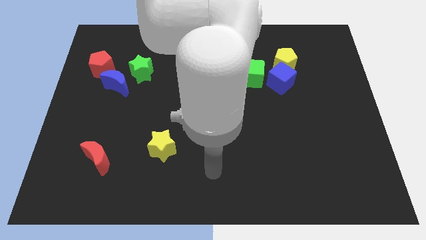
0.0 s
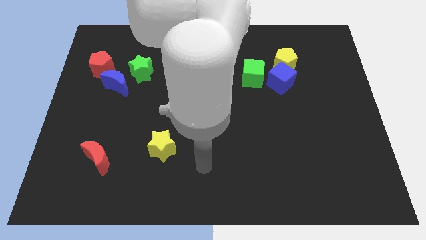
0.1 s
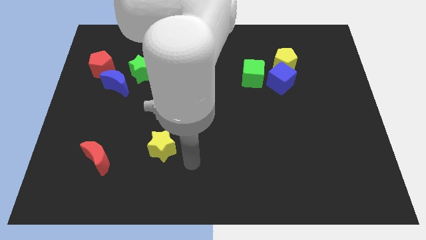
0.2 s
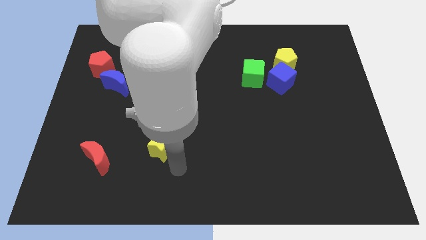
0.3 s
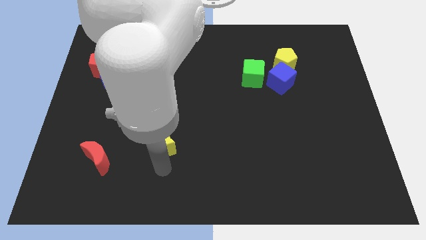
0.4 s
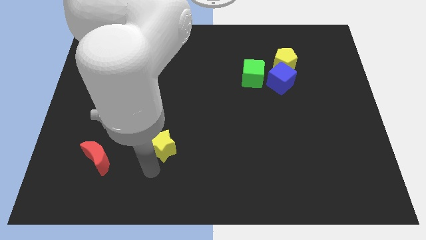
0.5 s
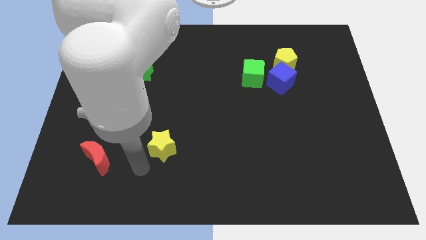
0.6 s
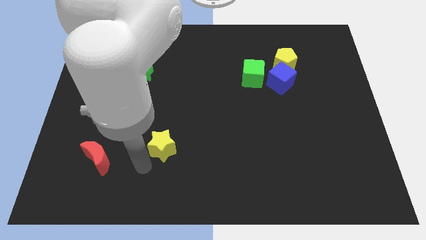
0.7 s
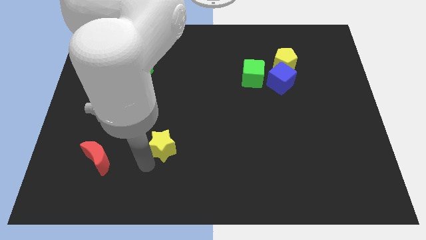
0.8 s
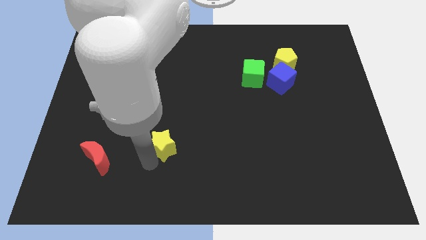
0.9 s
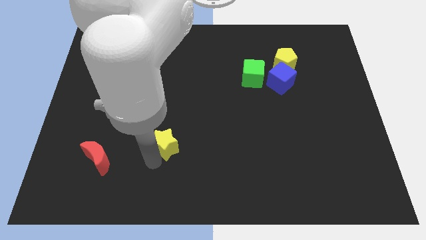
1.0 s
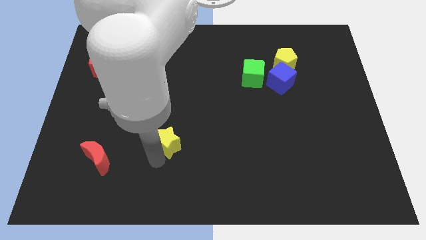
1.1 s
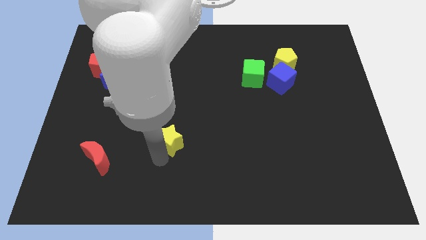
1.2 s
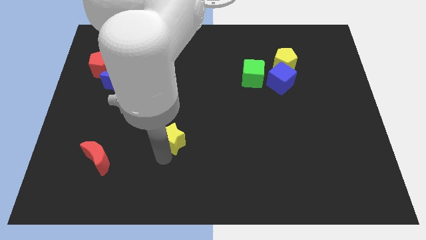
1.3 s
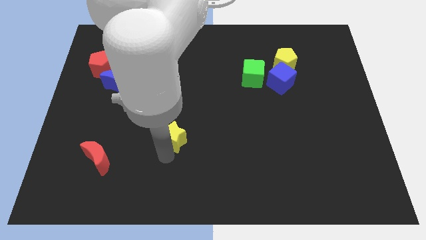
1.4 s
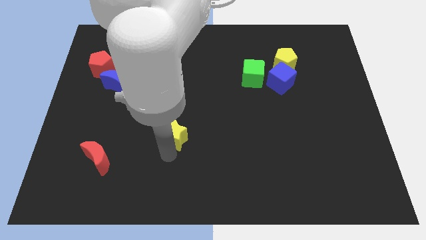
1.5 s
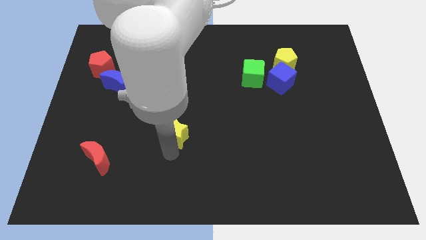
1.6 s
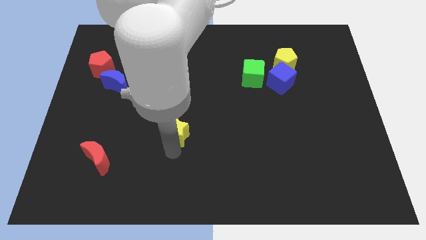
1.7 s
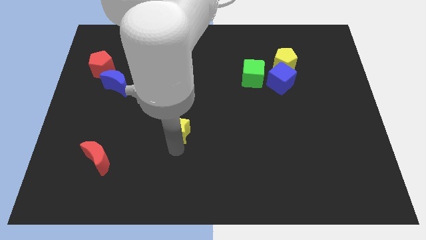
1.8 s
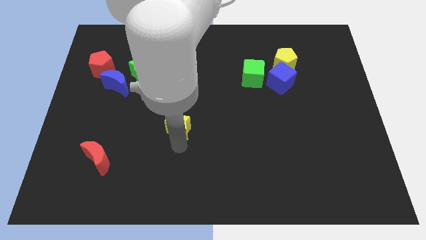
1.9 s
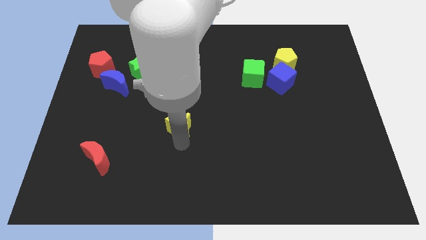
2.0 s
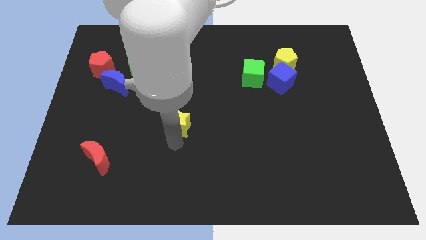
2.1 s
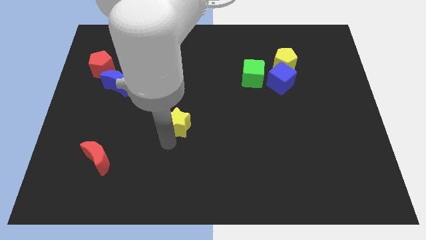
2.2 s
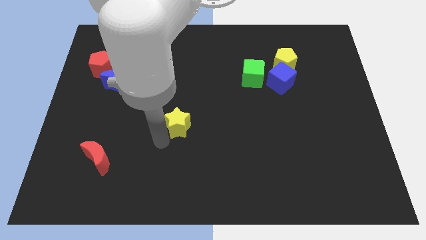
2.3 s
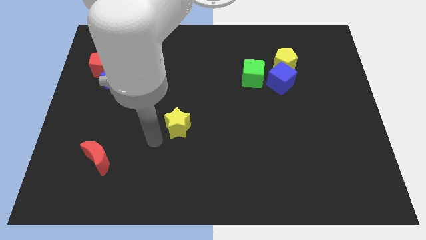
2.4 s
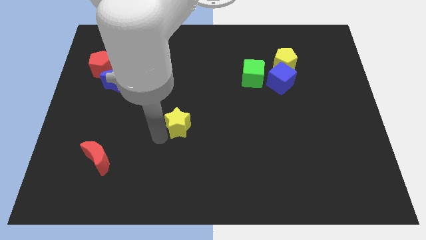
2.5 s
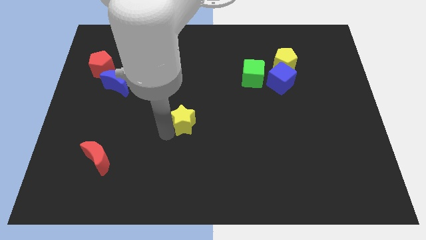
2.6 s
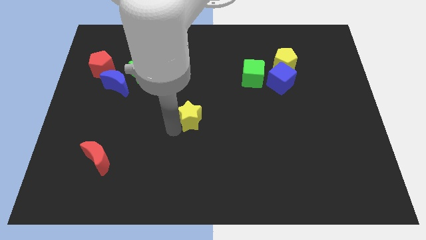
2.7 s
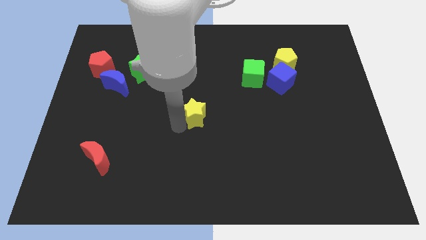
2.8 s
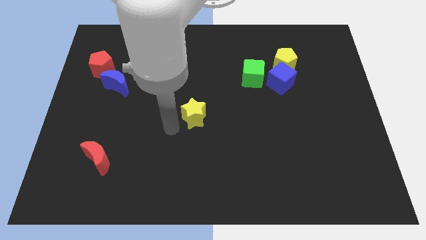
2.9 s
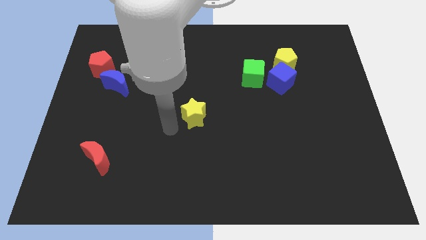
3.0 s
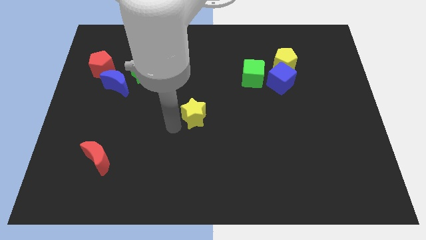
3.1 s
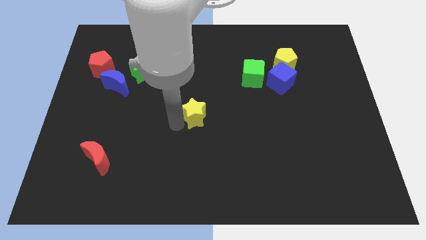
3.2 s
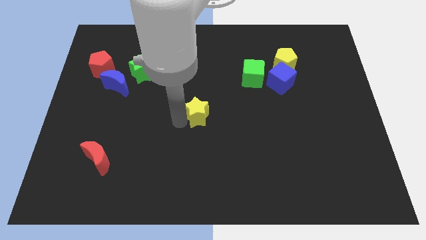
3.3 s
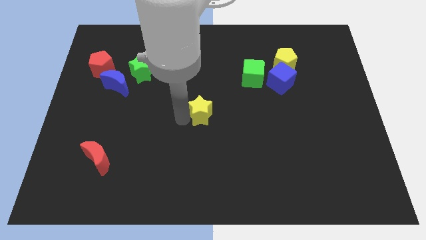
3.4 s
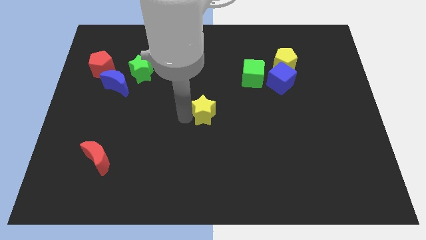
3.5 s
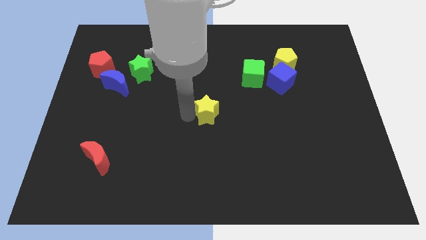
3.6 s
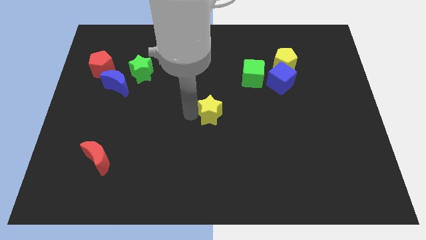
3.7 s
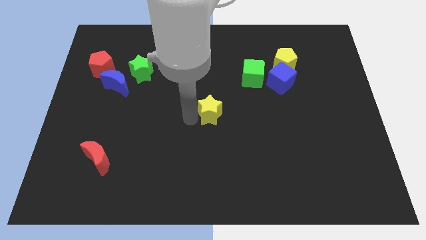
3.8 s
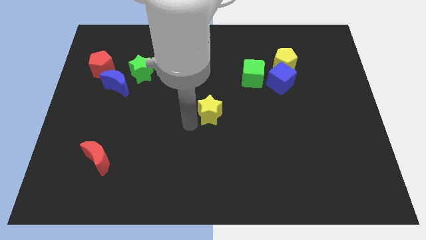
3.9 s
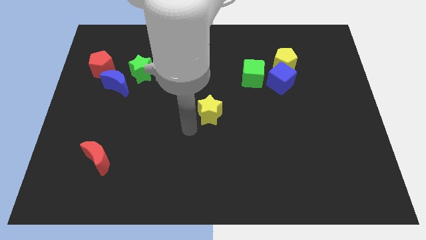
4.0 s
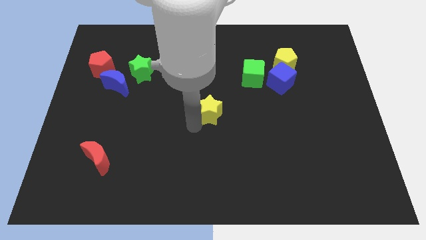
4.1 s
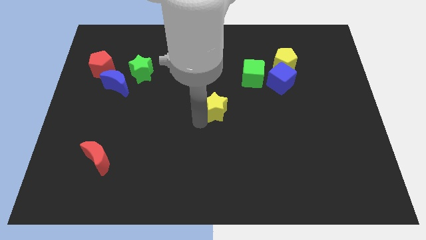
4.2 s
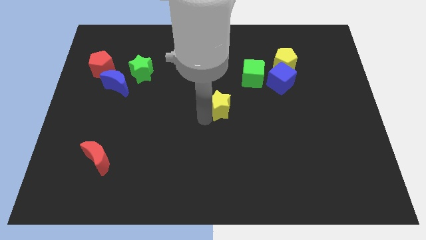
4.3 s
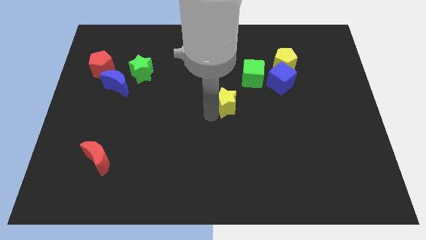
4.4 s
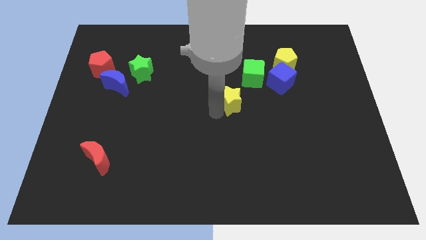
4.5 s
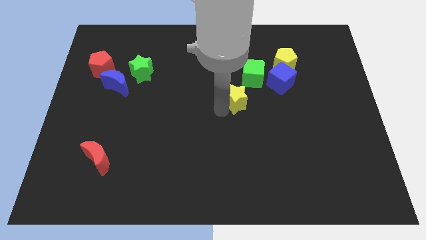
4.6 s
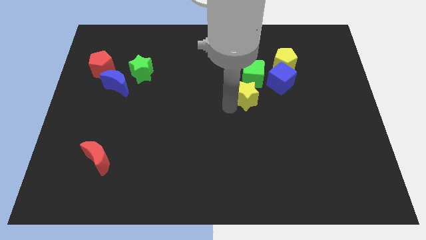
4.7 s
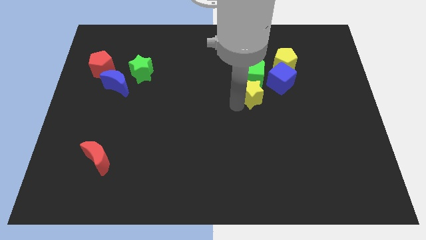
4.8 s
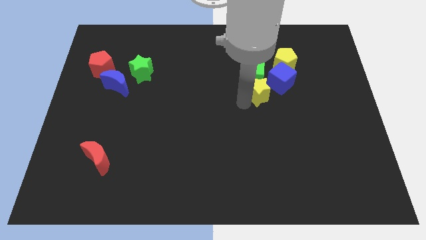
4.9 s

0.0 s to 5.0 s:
move the yellow star towards the green cube

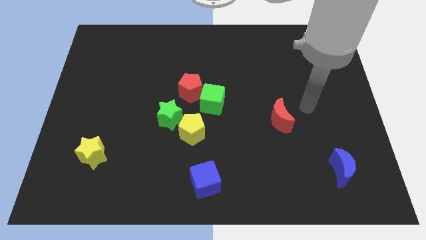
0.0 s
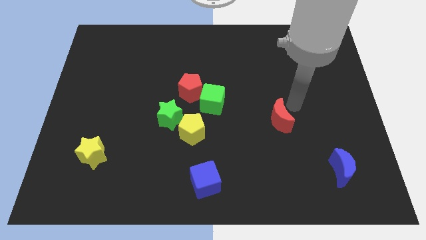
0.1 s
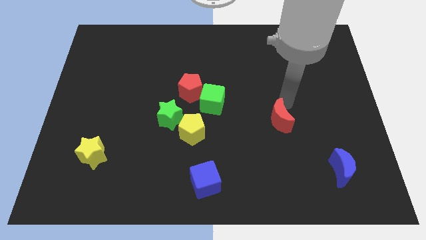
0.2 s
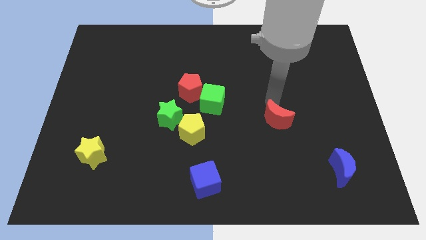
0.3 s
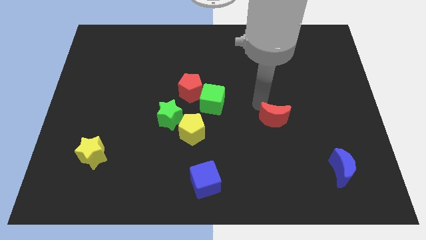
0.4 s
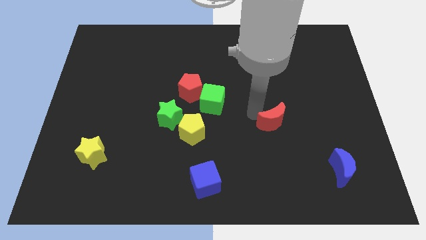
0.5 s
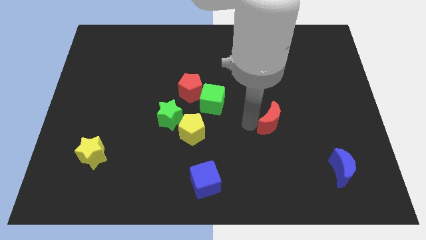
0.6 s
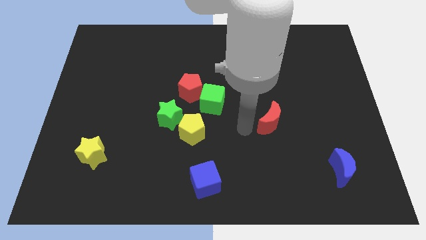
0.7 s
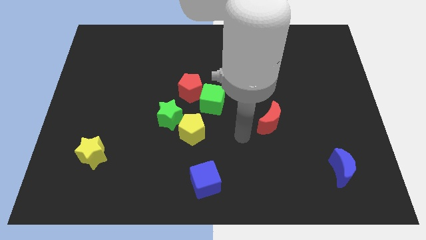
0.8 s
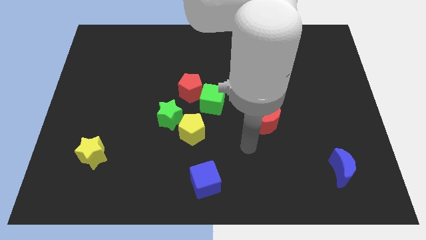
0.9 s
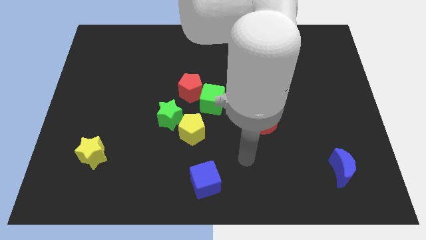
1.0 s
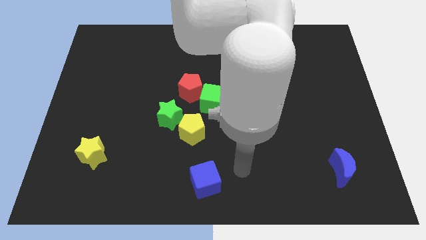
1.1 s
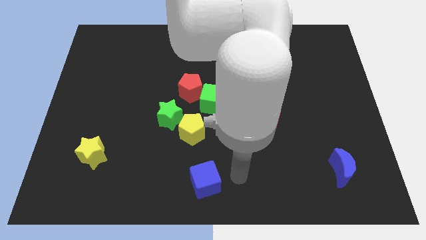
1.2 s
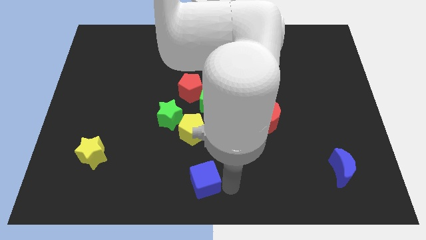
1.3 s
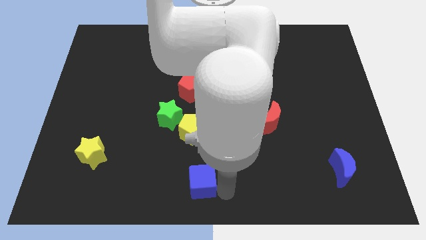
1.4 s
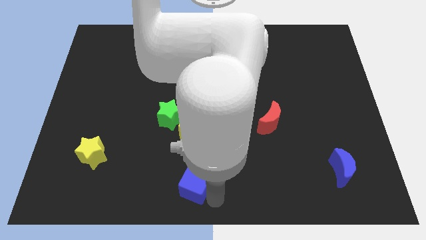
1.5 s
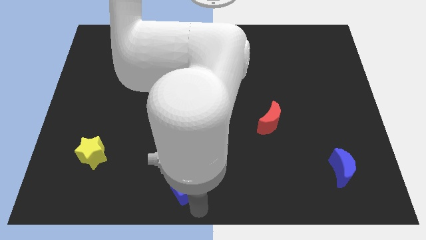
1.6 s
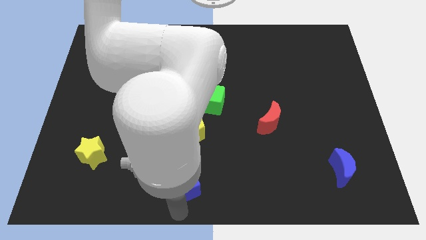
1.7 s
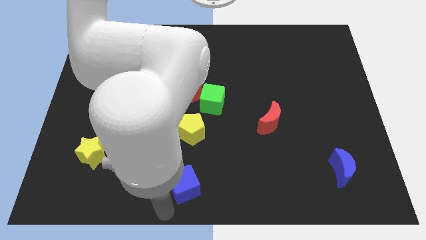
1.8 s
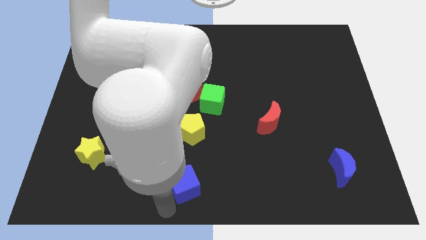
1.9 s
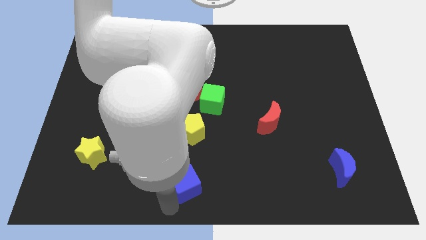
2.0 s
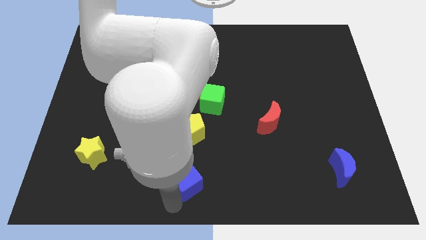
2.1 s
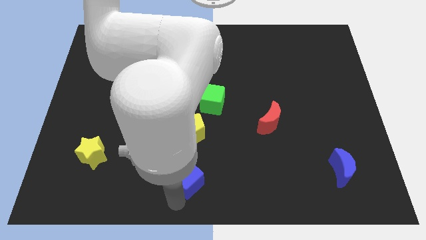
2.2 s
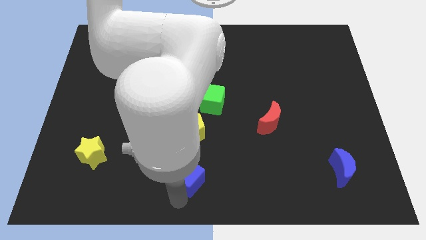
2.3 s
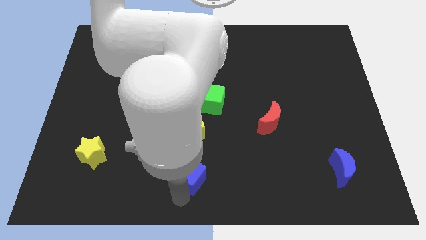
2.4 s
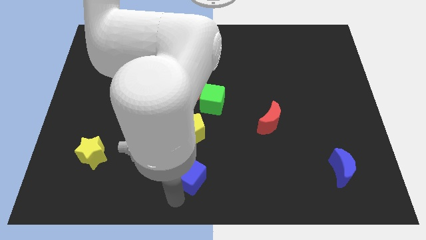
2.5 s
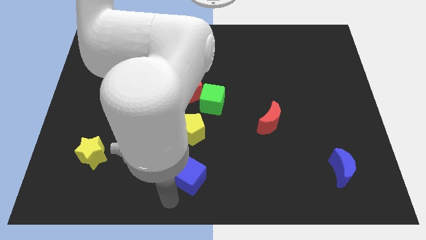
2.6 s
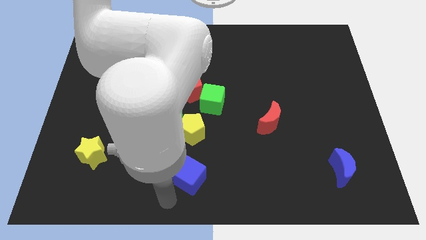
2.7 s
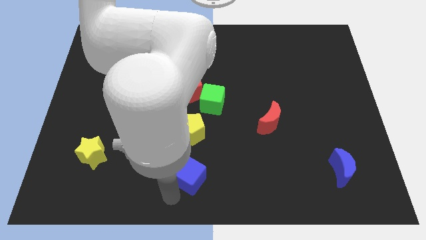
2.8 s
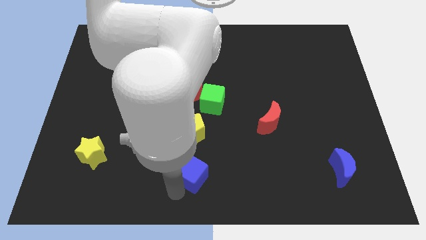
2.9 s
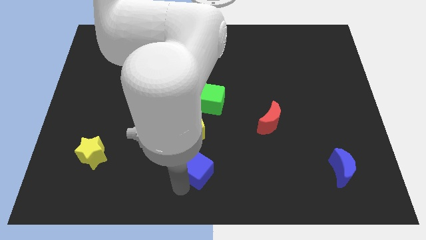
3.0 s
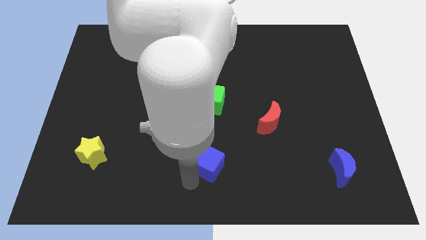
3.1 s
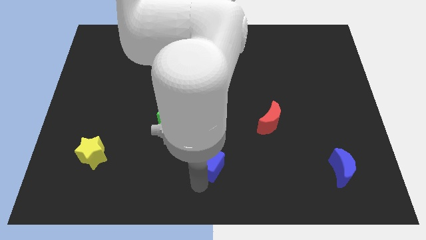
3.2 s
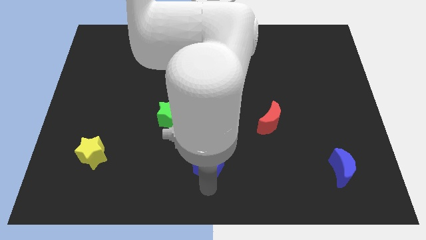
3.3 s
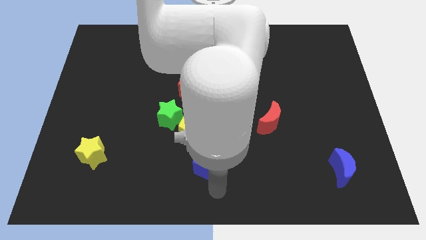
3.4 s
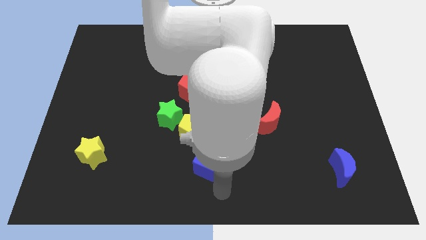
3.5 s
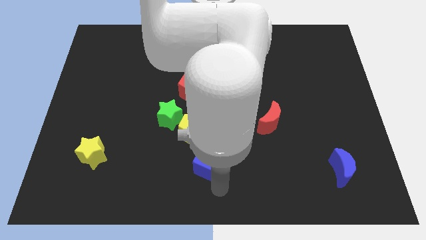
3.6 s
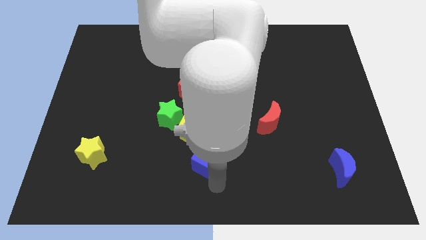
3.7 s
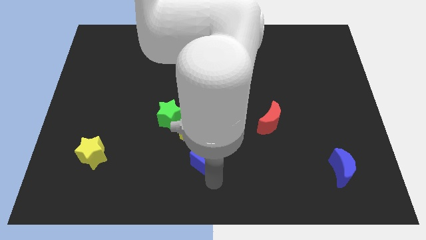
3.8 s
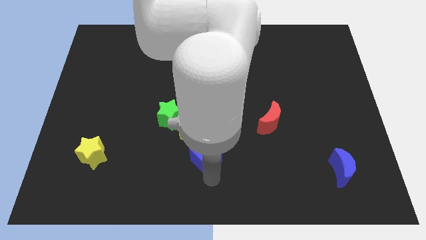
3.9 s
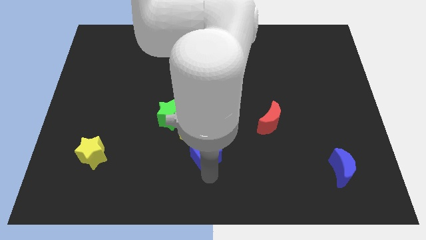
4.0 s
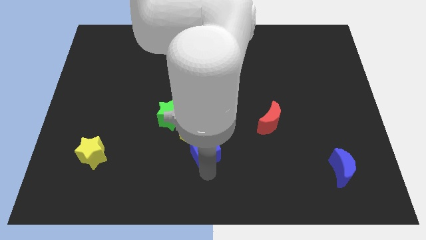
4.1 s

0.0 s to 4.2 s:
move the blue cube next to the yellow pentagon
